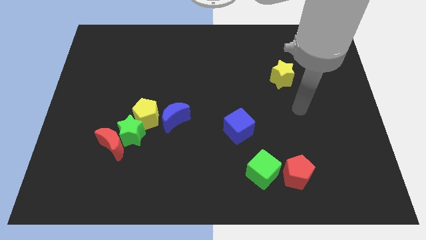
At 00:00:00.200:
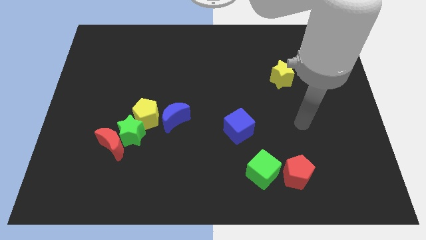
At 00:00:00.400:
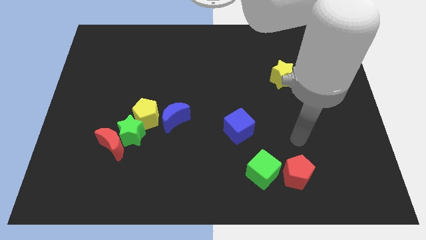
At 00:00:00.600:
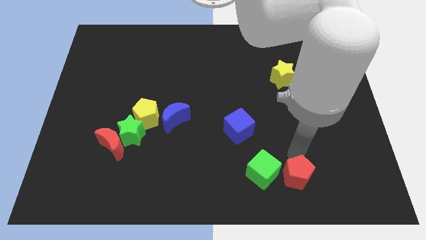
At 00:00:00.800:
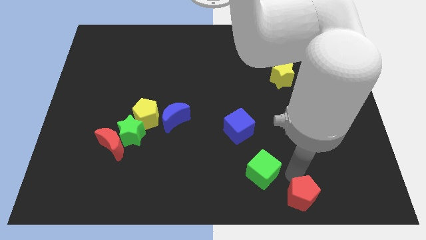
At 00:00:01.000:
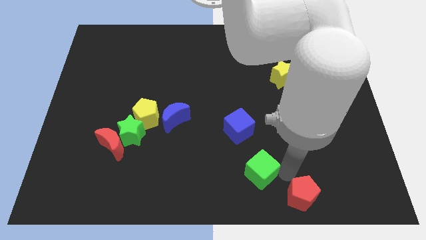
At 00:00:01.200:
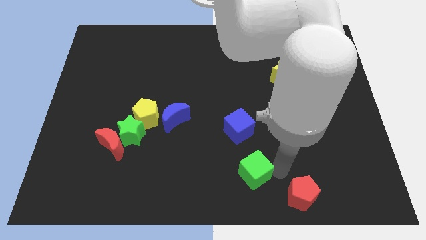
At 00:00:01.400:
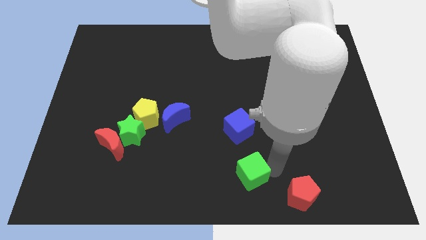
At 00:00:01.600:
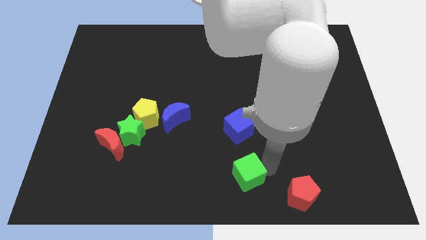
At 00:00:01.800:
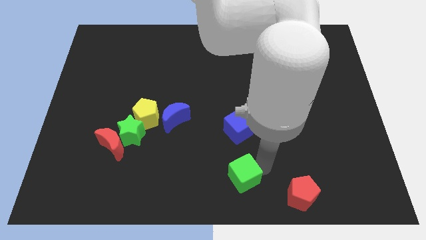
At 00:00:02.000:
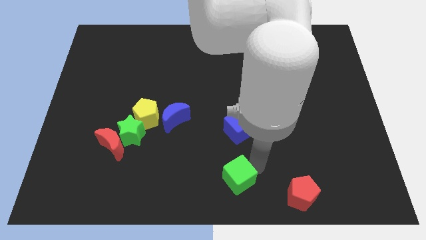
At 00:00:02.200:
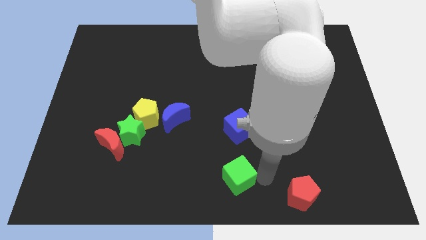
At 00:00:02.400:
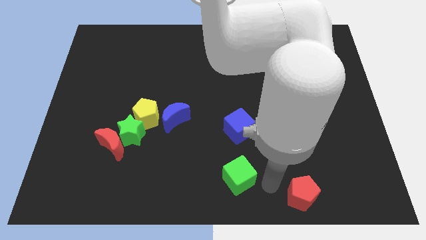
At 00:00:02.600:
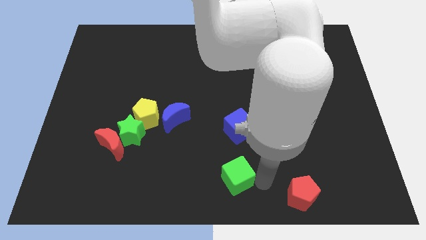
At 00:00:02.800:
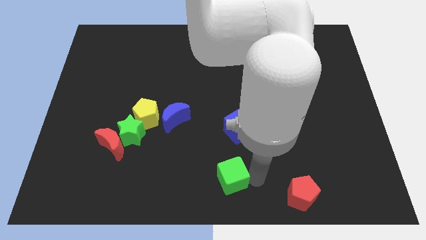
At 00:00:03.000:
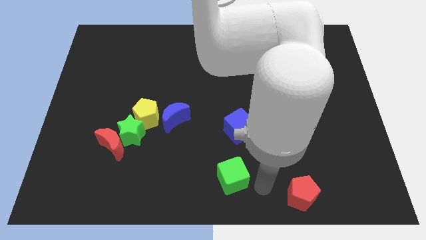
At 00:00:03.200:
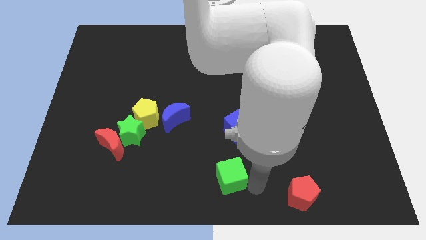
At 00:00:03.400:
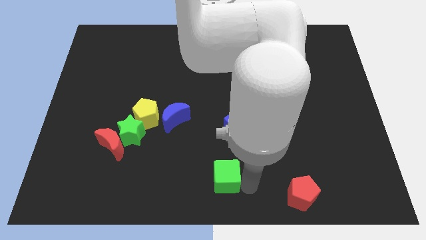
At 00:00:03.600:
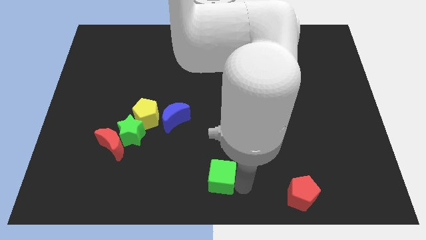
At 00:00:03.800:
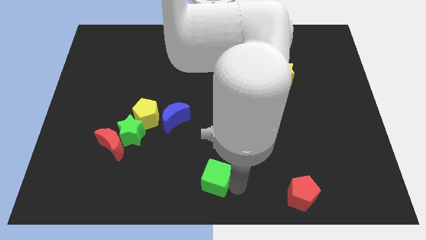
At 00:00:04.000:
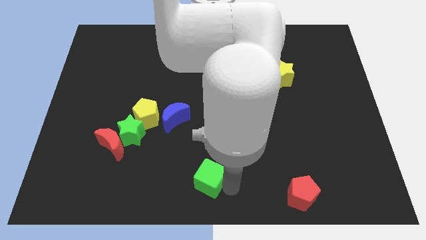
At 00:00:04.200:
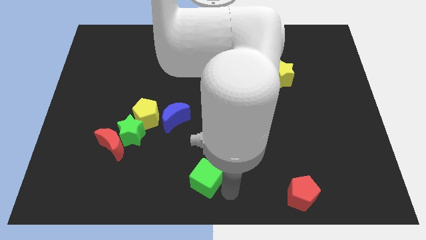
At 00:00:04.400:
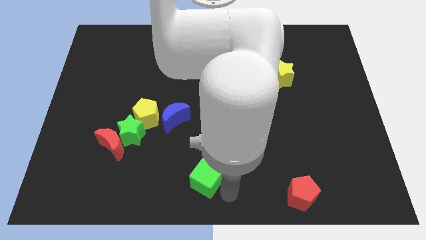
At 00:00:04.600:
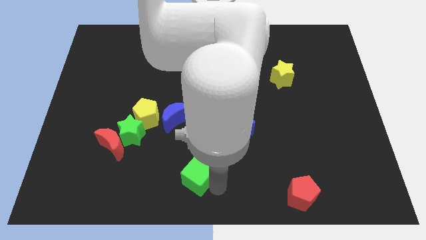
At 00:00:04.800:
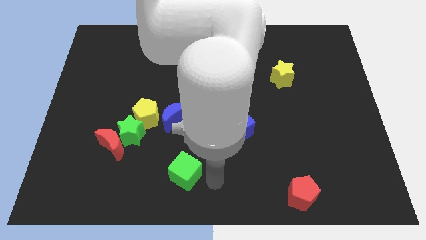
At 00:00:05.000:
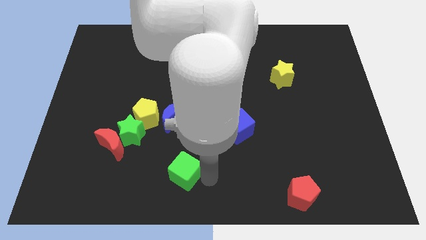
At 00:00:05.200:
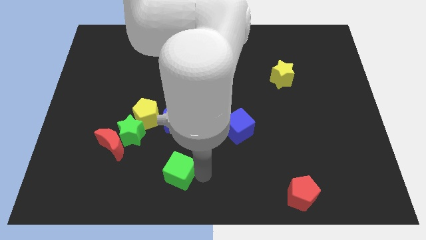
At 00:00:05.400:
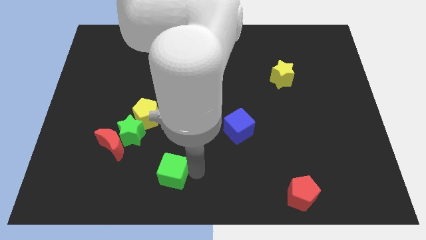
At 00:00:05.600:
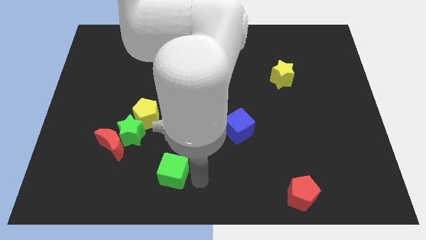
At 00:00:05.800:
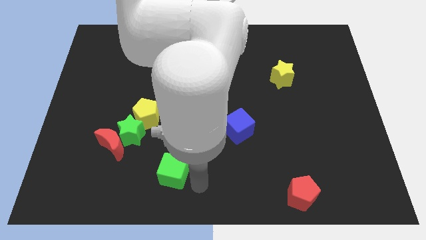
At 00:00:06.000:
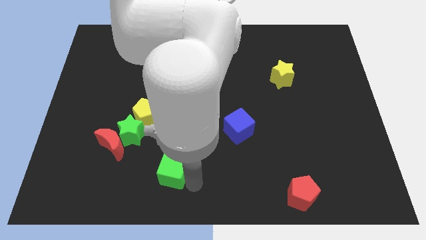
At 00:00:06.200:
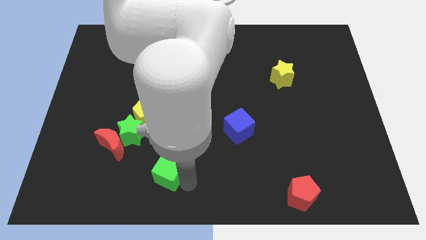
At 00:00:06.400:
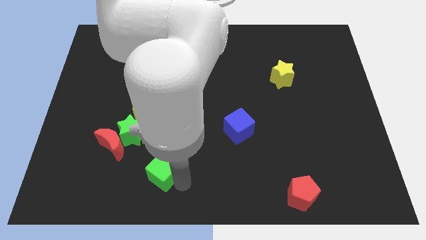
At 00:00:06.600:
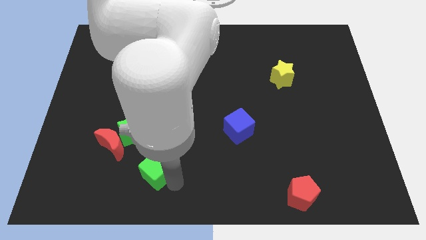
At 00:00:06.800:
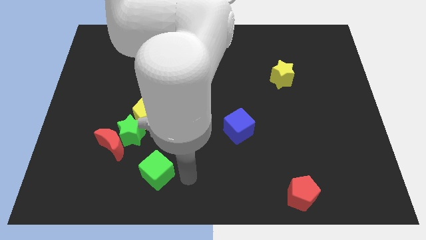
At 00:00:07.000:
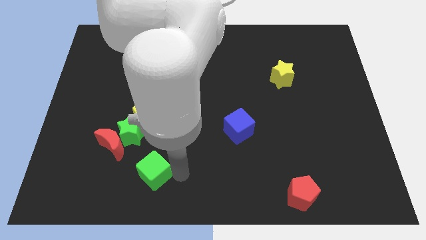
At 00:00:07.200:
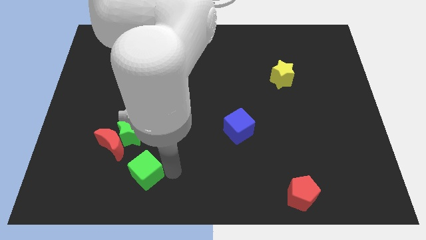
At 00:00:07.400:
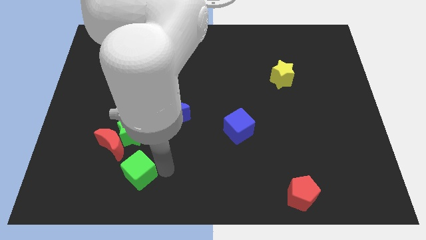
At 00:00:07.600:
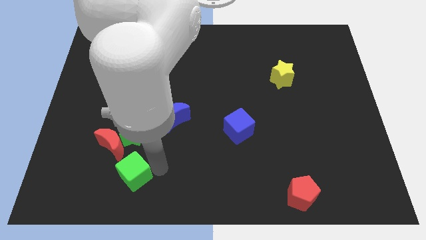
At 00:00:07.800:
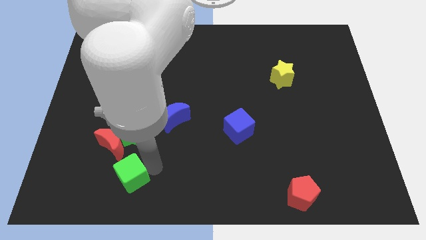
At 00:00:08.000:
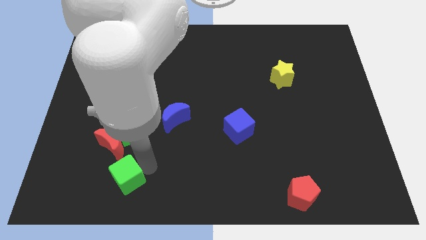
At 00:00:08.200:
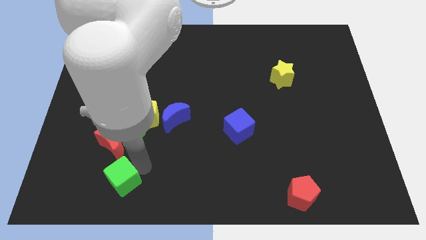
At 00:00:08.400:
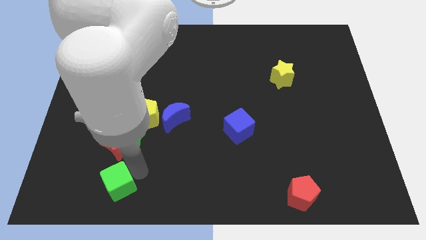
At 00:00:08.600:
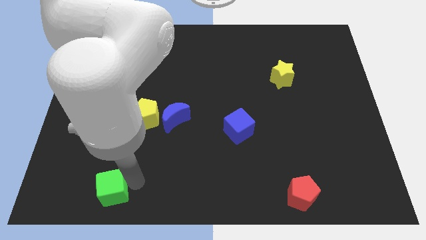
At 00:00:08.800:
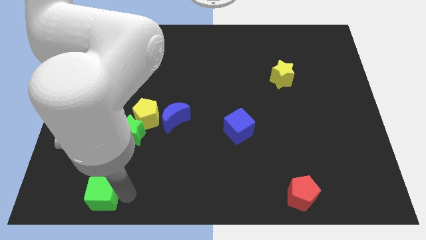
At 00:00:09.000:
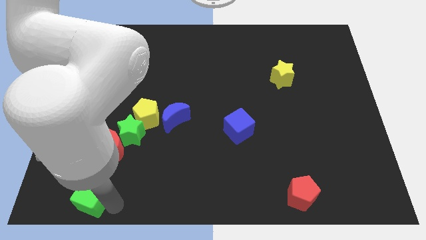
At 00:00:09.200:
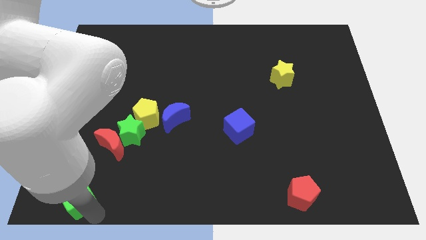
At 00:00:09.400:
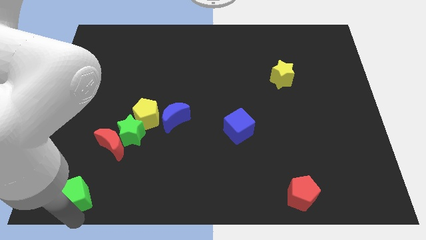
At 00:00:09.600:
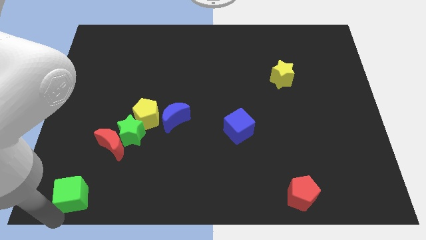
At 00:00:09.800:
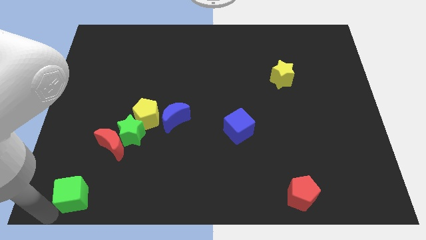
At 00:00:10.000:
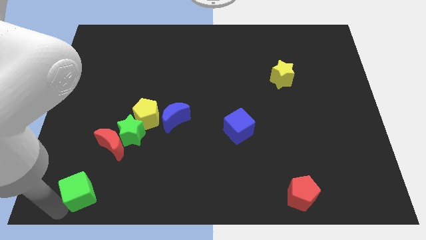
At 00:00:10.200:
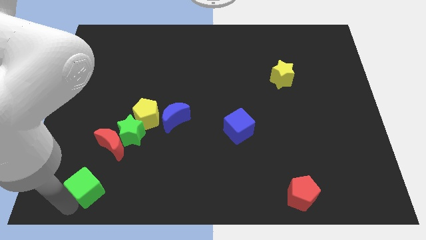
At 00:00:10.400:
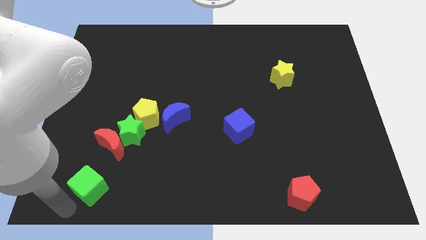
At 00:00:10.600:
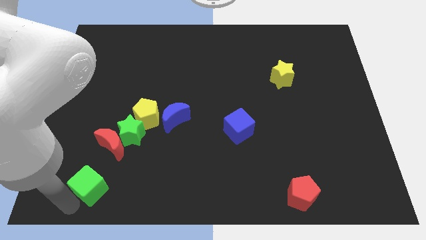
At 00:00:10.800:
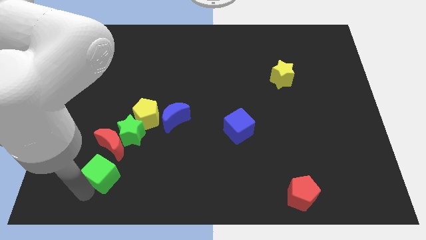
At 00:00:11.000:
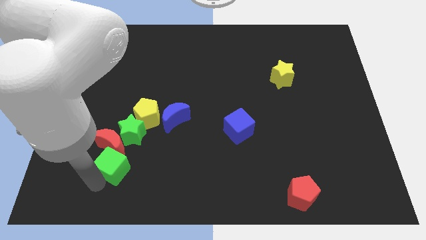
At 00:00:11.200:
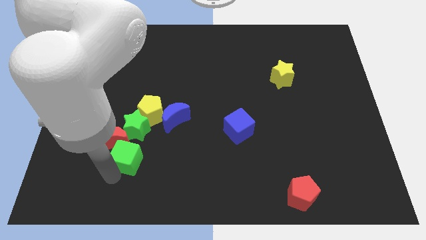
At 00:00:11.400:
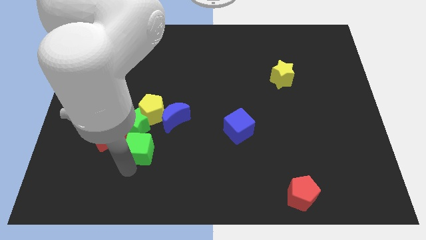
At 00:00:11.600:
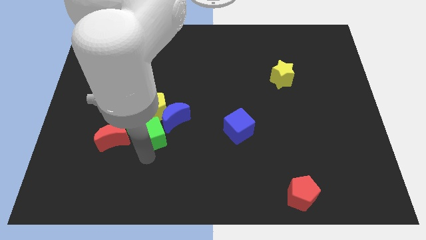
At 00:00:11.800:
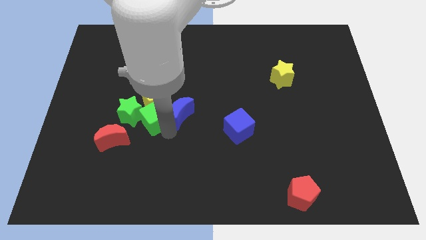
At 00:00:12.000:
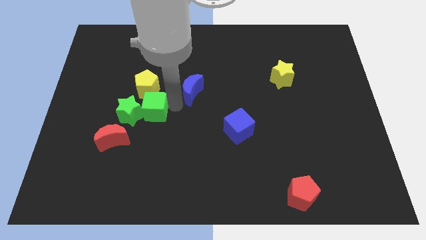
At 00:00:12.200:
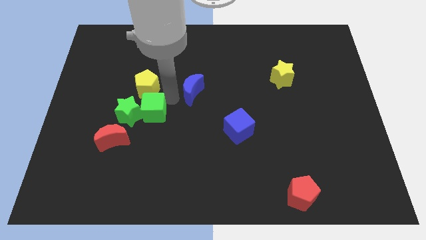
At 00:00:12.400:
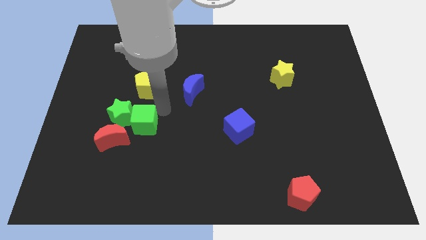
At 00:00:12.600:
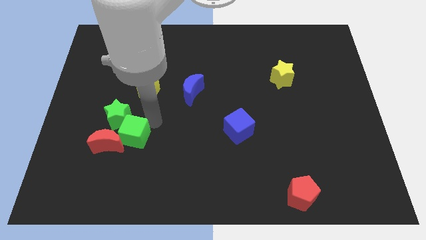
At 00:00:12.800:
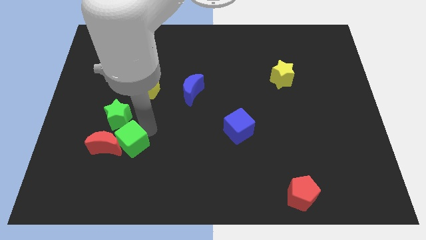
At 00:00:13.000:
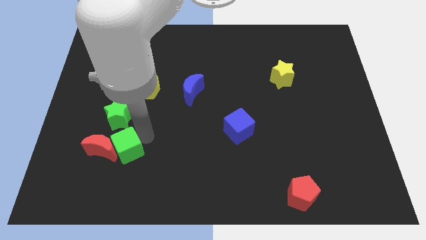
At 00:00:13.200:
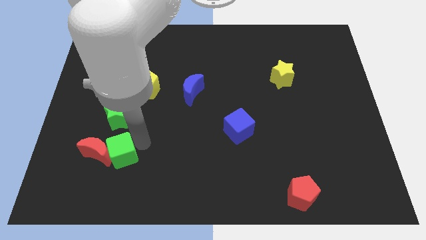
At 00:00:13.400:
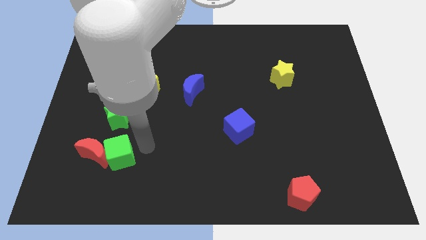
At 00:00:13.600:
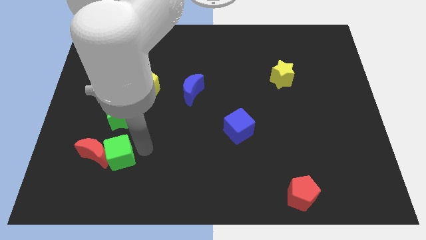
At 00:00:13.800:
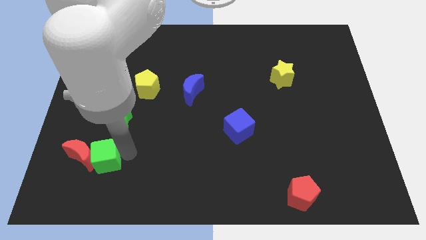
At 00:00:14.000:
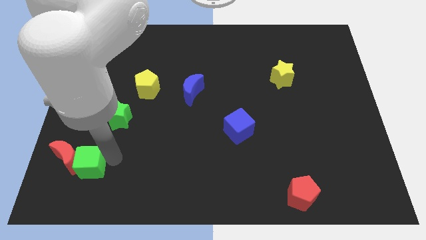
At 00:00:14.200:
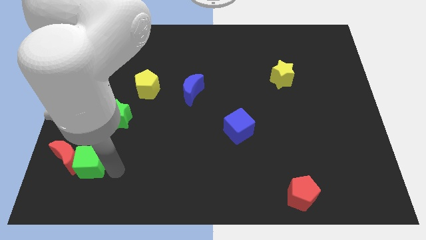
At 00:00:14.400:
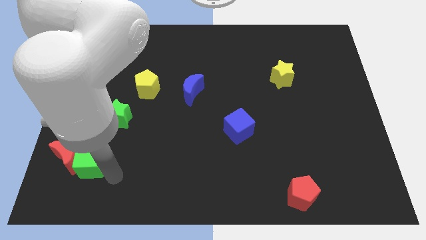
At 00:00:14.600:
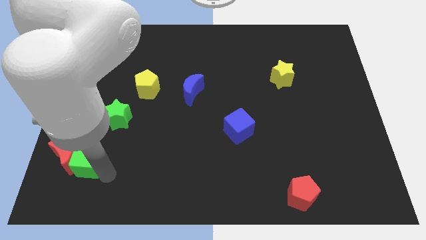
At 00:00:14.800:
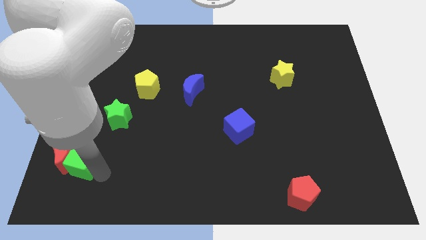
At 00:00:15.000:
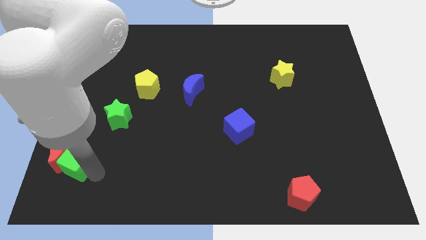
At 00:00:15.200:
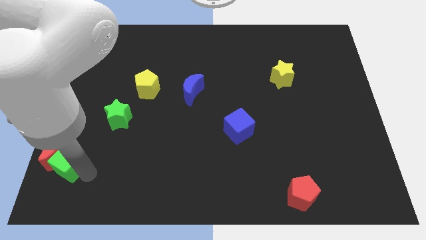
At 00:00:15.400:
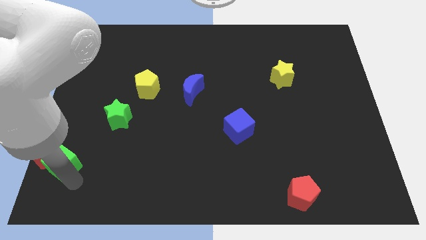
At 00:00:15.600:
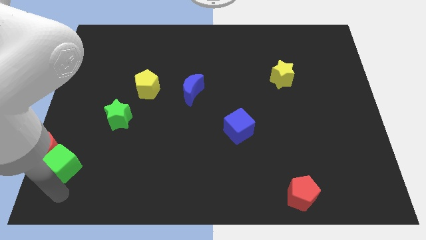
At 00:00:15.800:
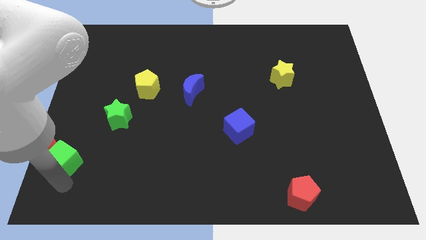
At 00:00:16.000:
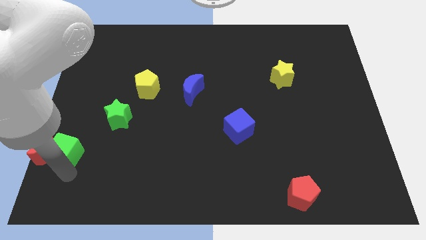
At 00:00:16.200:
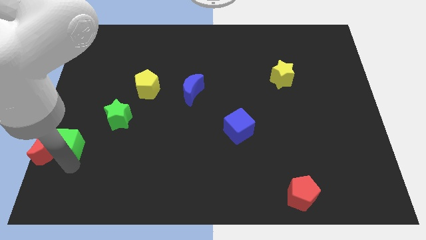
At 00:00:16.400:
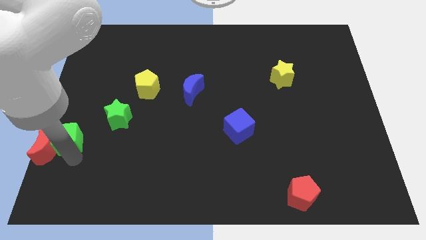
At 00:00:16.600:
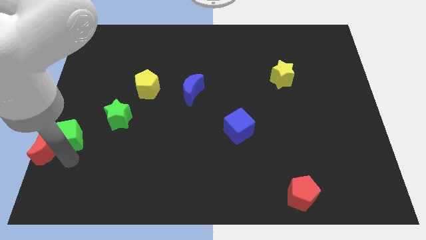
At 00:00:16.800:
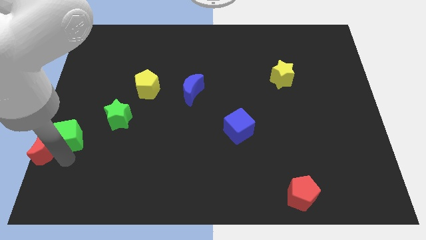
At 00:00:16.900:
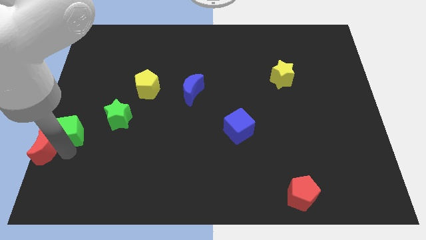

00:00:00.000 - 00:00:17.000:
move the green cube left of the green star
